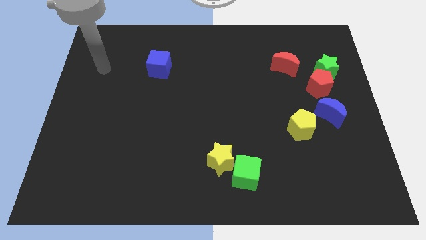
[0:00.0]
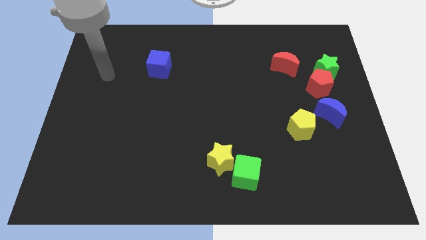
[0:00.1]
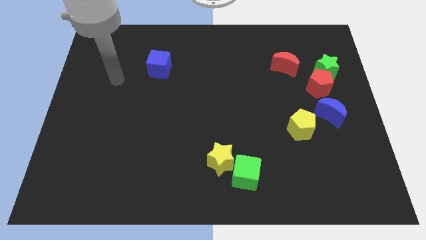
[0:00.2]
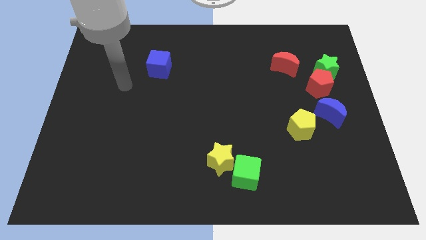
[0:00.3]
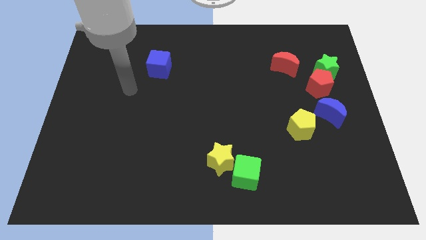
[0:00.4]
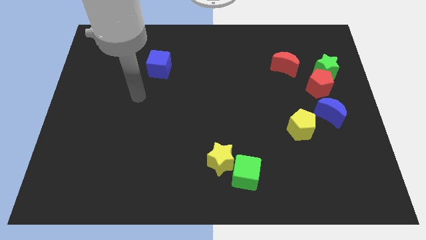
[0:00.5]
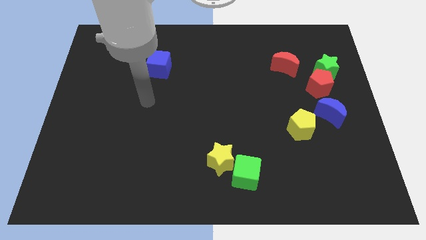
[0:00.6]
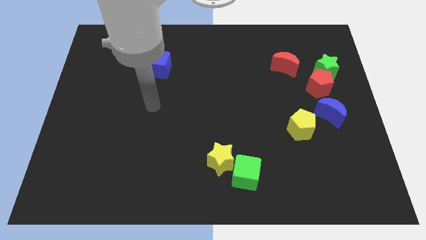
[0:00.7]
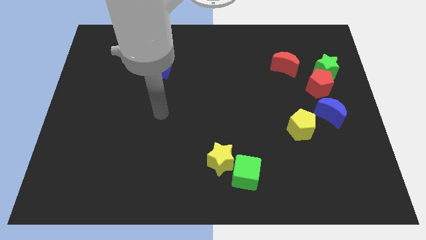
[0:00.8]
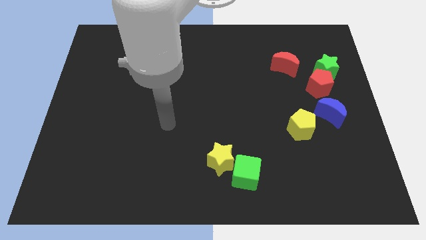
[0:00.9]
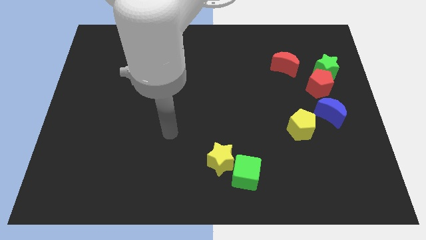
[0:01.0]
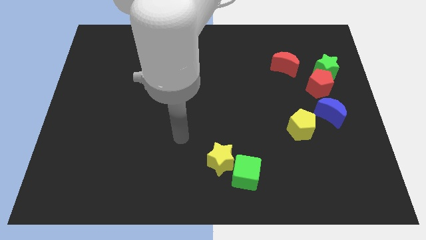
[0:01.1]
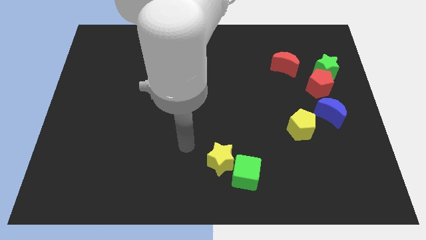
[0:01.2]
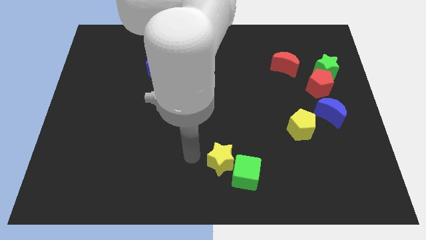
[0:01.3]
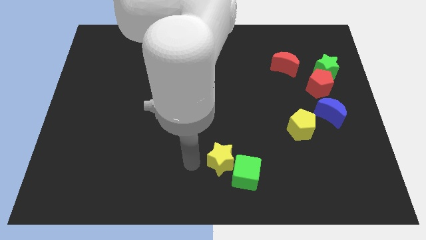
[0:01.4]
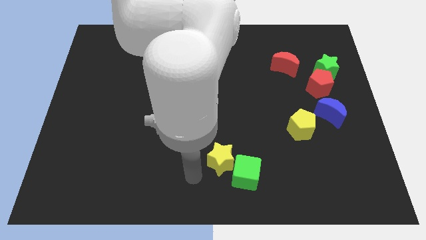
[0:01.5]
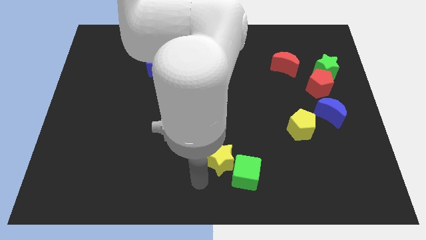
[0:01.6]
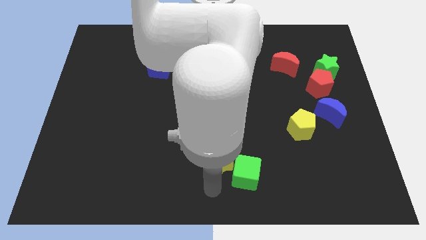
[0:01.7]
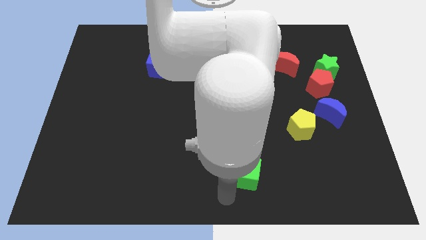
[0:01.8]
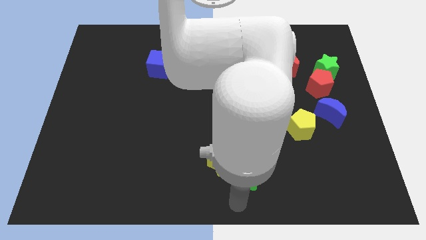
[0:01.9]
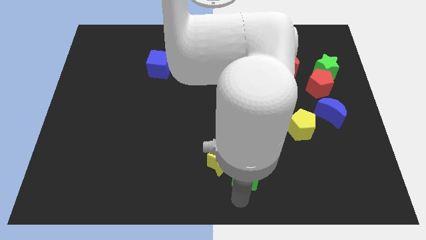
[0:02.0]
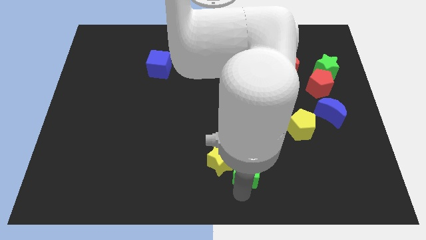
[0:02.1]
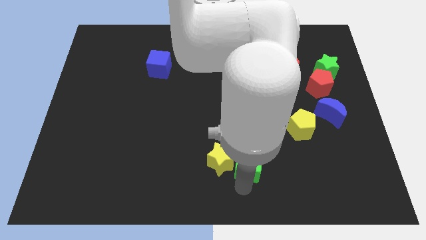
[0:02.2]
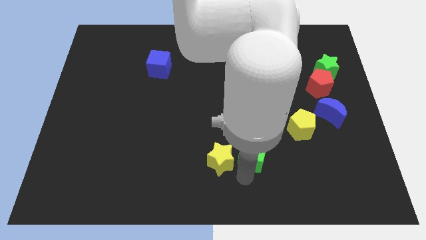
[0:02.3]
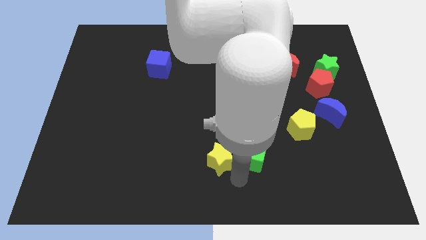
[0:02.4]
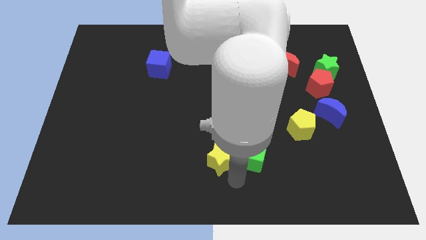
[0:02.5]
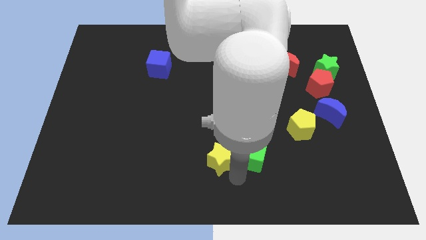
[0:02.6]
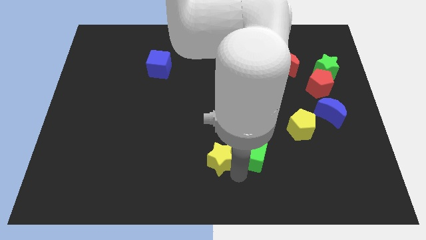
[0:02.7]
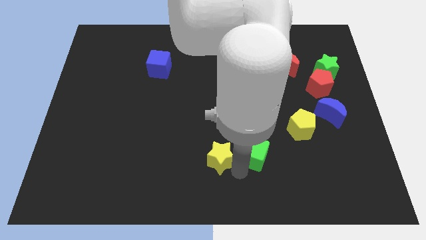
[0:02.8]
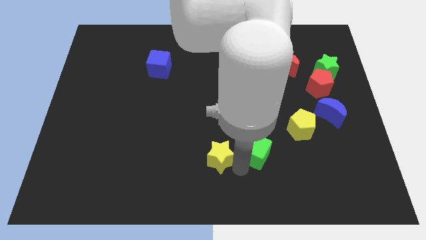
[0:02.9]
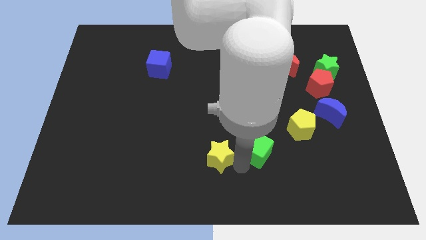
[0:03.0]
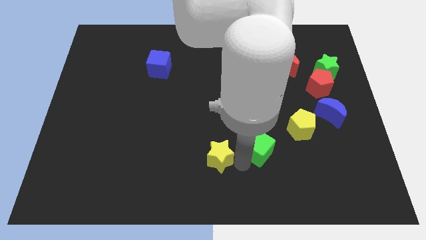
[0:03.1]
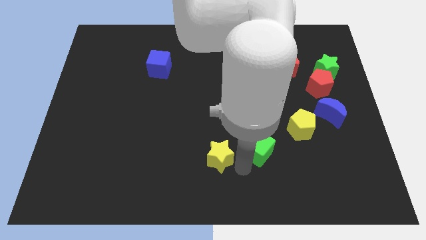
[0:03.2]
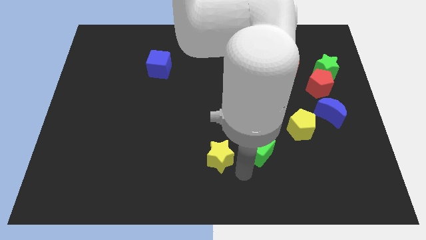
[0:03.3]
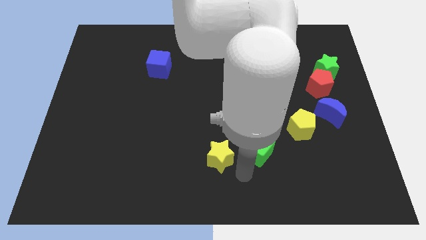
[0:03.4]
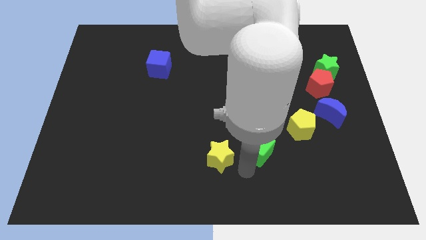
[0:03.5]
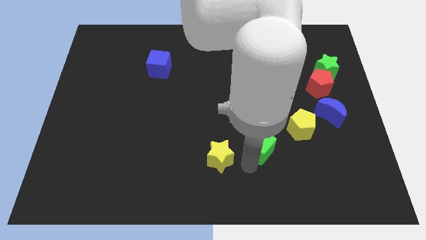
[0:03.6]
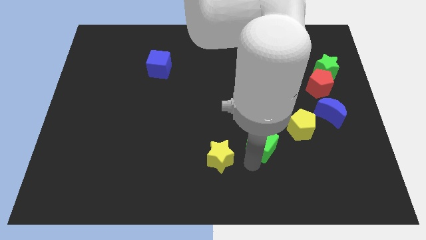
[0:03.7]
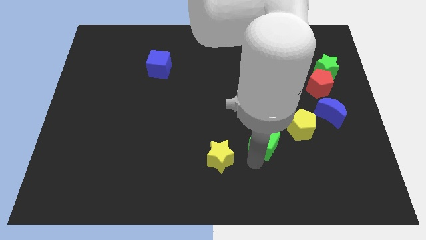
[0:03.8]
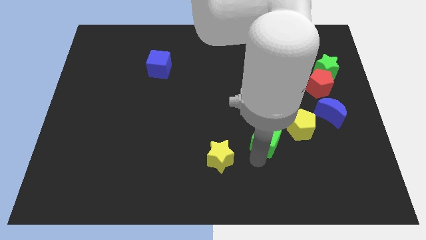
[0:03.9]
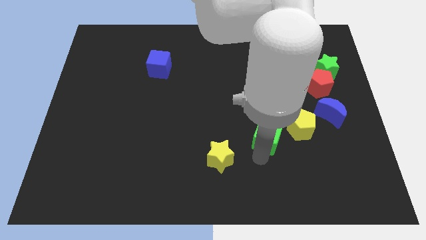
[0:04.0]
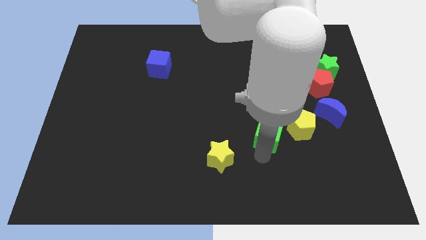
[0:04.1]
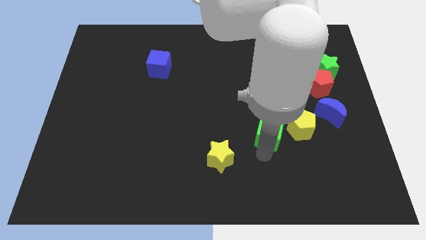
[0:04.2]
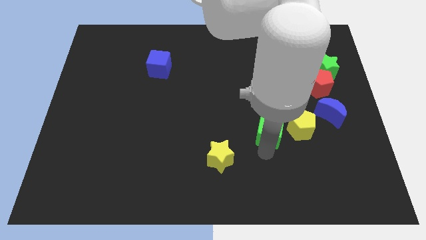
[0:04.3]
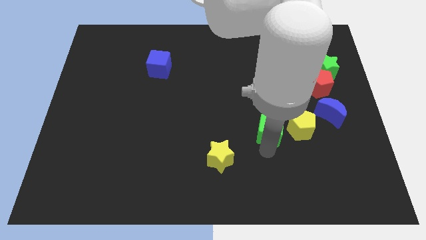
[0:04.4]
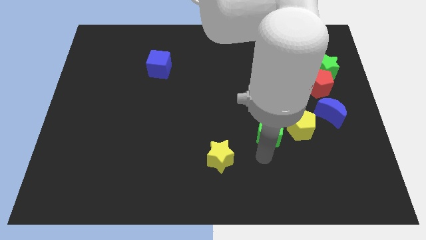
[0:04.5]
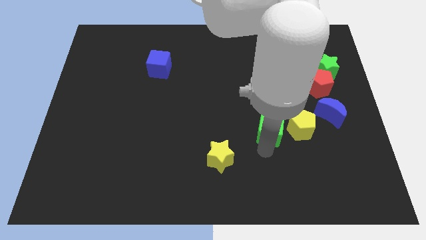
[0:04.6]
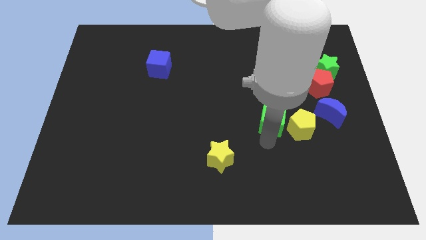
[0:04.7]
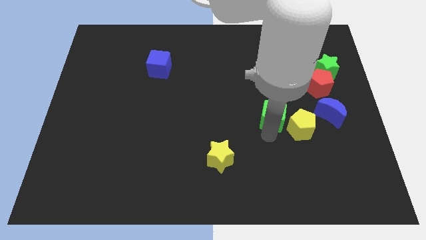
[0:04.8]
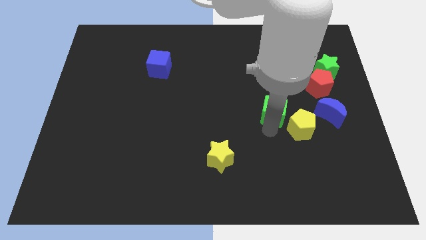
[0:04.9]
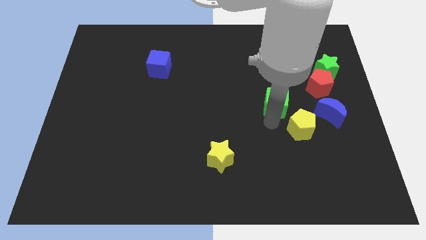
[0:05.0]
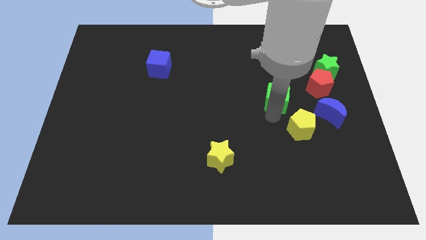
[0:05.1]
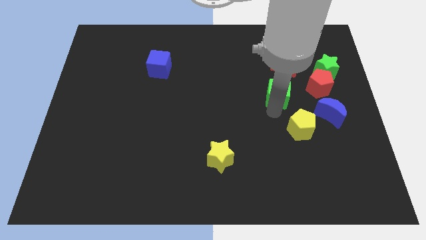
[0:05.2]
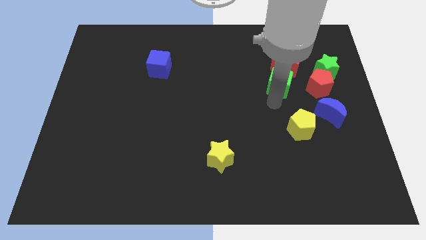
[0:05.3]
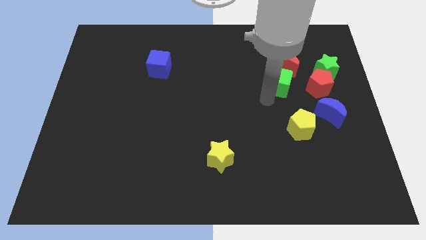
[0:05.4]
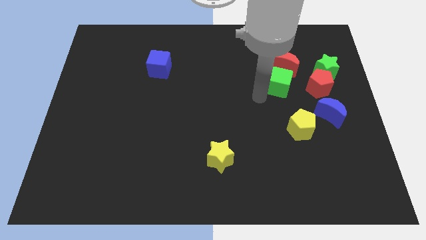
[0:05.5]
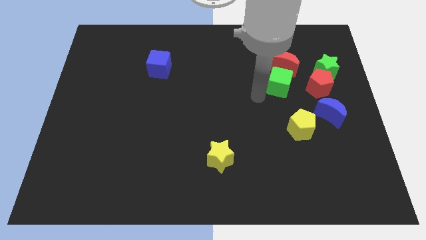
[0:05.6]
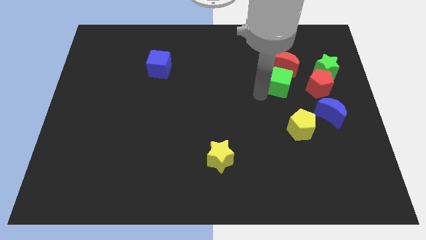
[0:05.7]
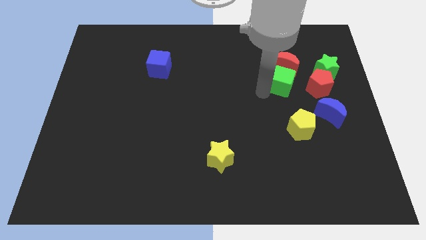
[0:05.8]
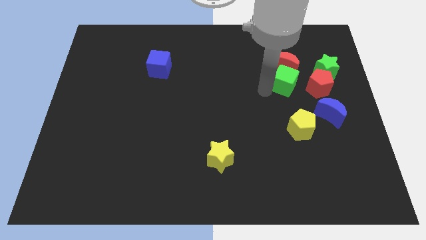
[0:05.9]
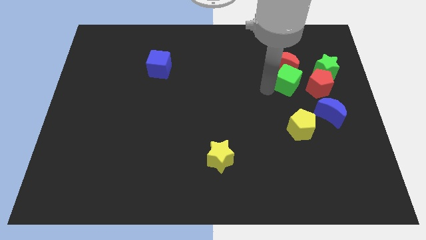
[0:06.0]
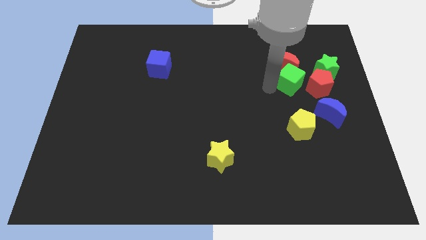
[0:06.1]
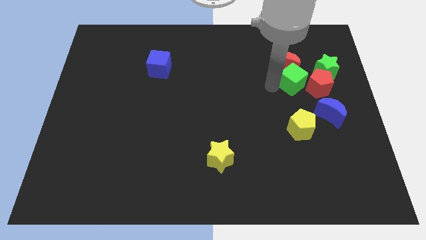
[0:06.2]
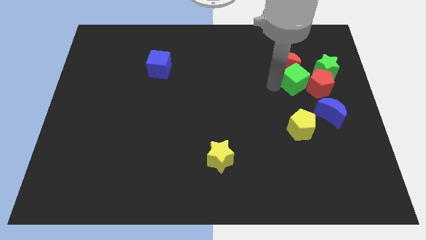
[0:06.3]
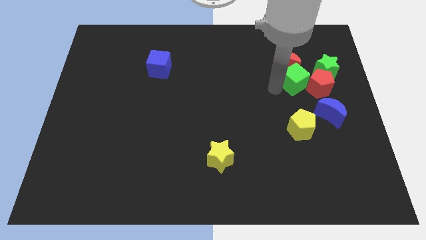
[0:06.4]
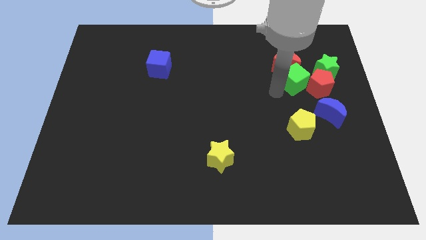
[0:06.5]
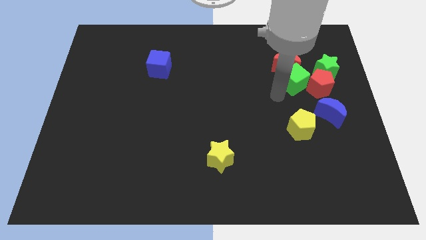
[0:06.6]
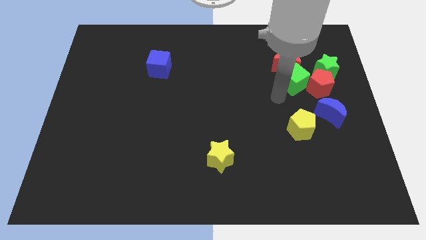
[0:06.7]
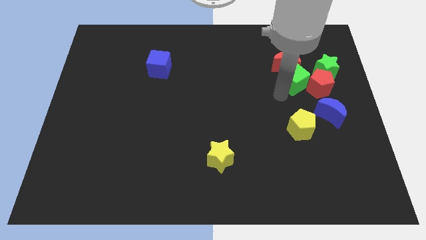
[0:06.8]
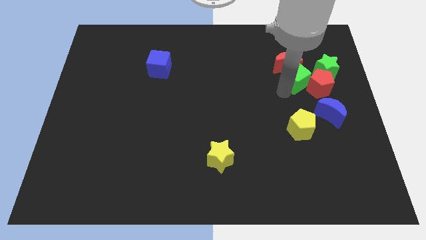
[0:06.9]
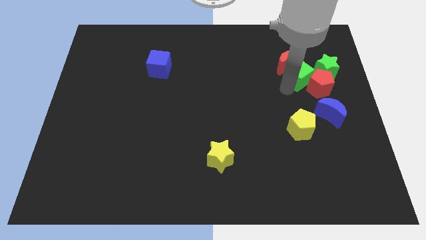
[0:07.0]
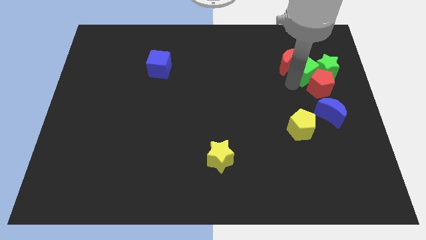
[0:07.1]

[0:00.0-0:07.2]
push the green cube right of the red moon

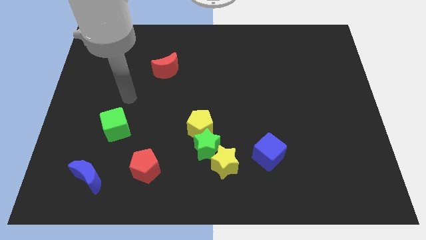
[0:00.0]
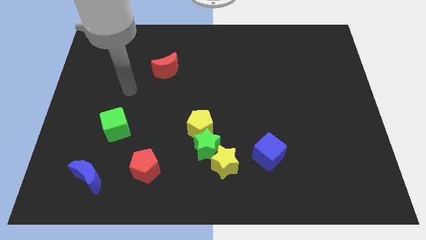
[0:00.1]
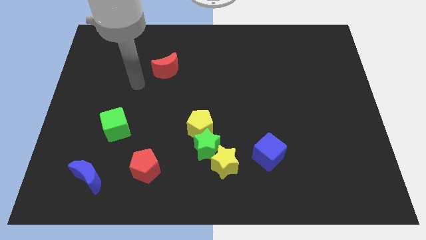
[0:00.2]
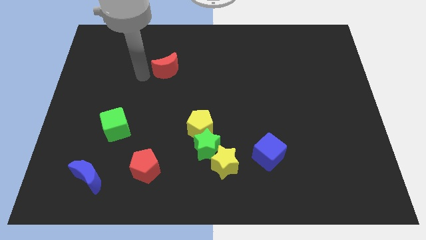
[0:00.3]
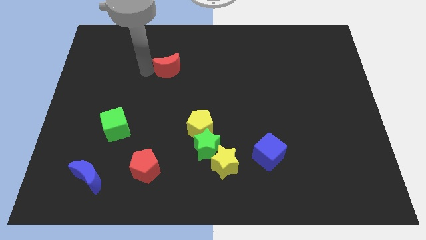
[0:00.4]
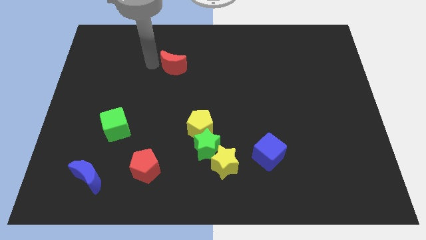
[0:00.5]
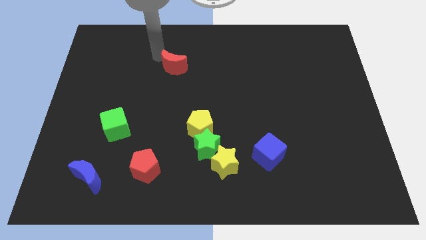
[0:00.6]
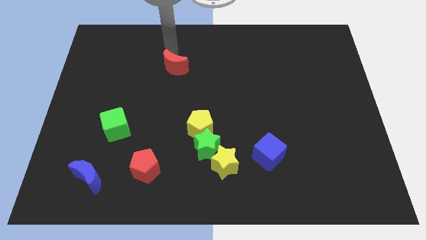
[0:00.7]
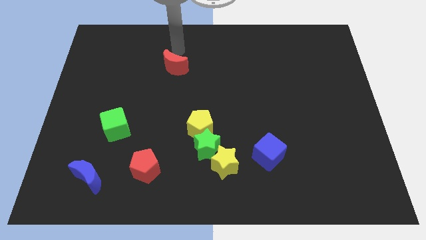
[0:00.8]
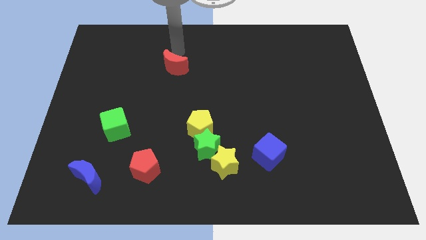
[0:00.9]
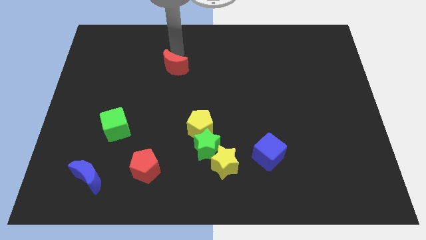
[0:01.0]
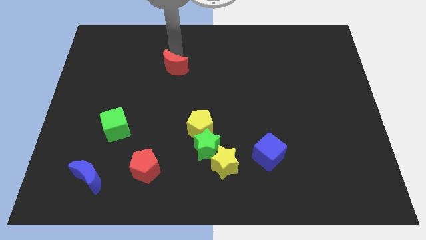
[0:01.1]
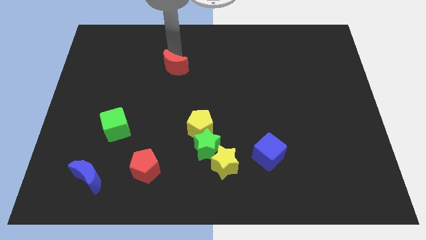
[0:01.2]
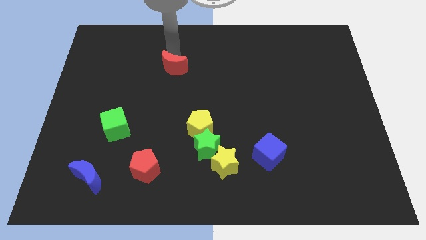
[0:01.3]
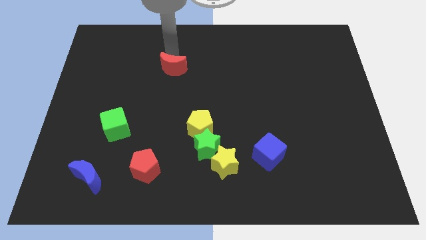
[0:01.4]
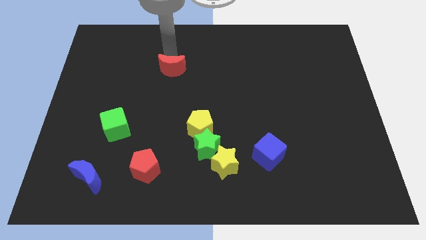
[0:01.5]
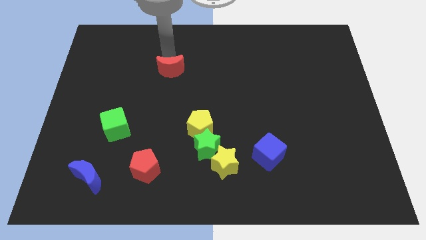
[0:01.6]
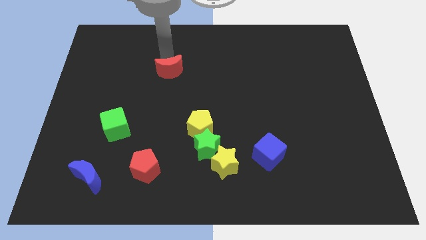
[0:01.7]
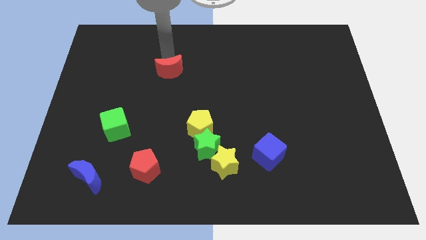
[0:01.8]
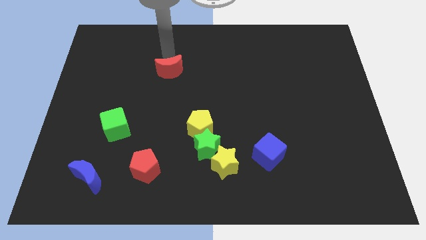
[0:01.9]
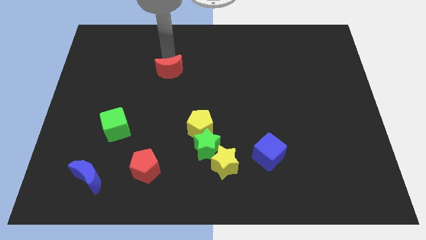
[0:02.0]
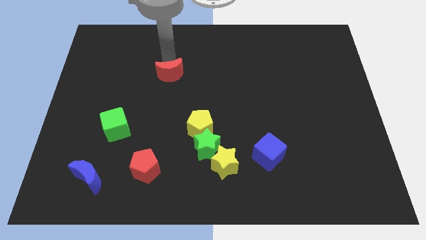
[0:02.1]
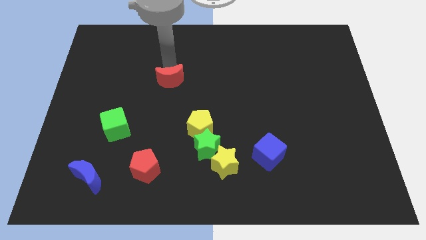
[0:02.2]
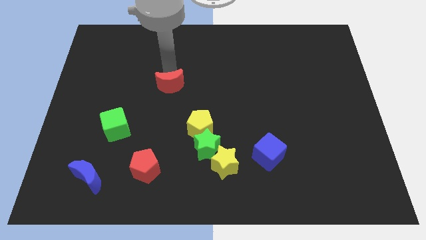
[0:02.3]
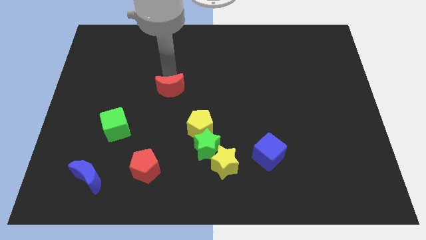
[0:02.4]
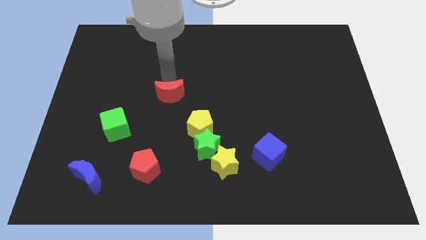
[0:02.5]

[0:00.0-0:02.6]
put the red moon to the top left of the yellow pentagon
